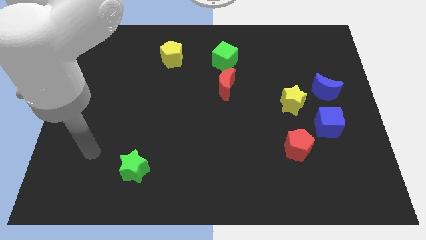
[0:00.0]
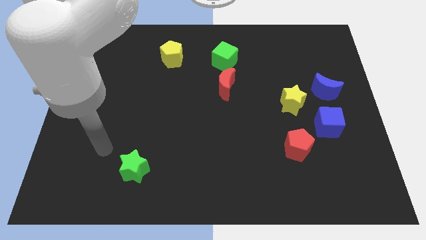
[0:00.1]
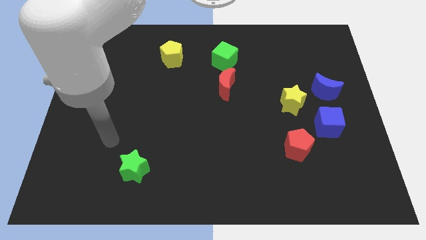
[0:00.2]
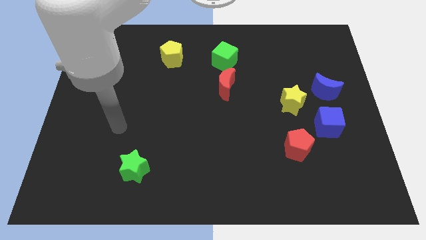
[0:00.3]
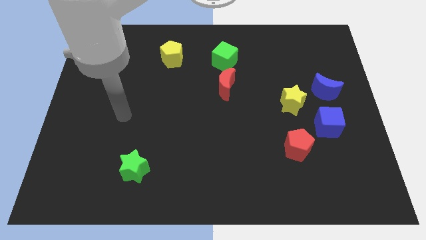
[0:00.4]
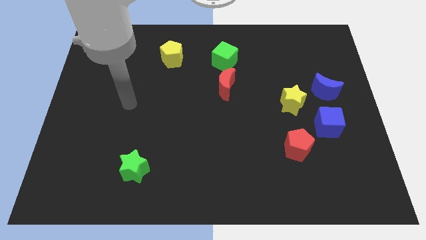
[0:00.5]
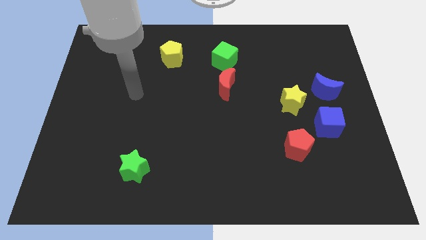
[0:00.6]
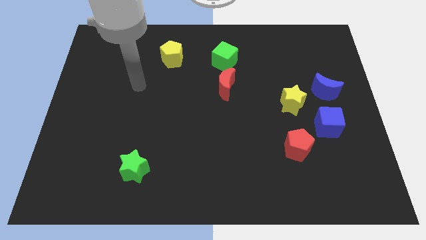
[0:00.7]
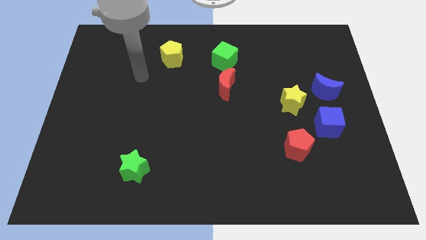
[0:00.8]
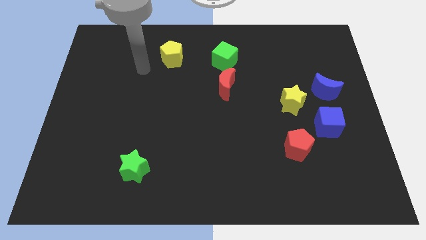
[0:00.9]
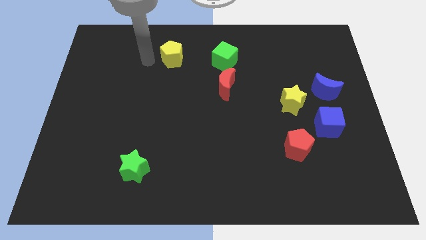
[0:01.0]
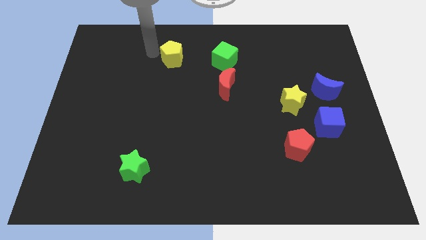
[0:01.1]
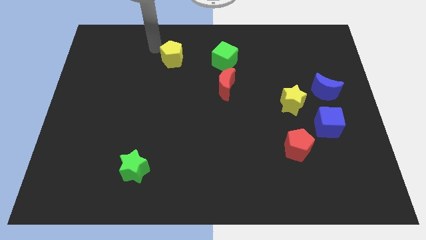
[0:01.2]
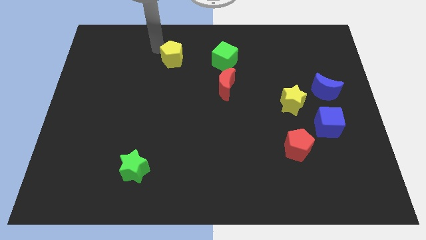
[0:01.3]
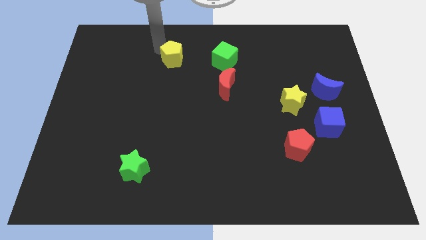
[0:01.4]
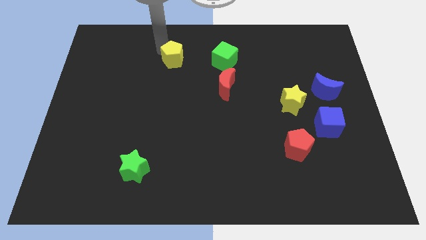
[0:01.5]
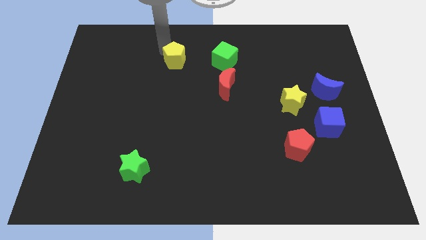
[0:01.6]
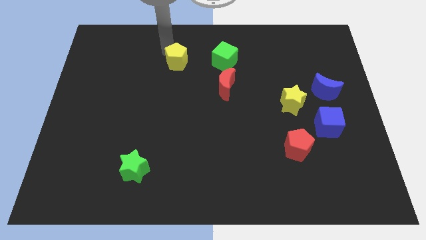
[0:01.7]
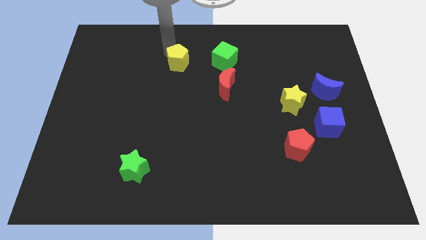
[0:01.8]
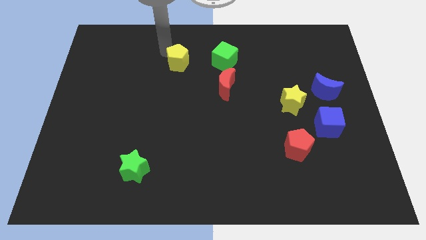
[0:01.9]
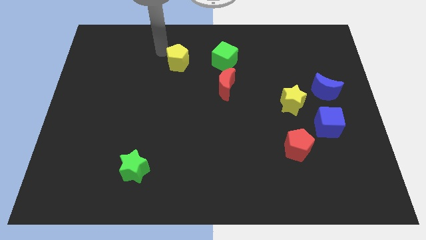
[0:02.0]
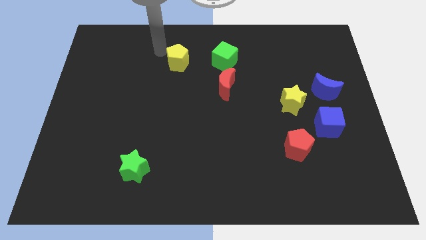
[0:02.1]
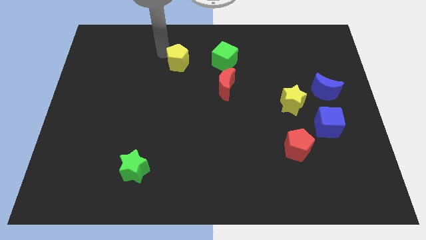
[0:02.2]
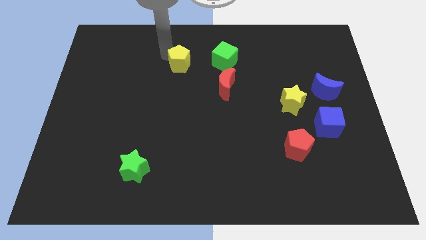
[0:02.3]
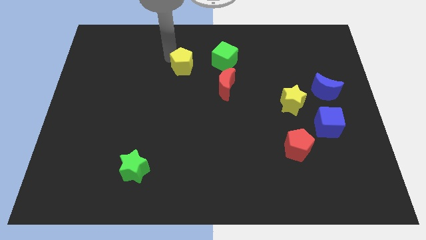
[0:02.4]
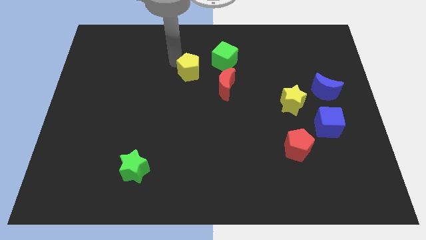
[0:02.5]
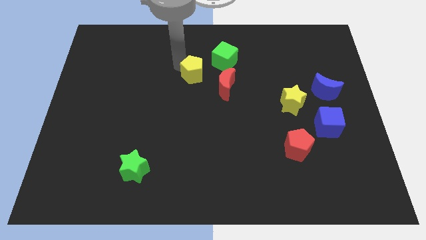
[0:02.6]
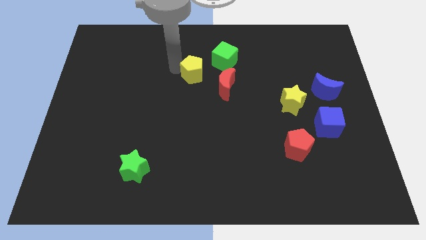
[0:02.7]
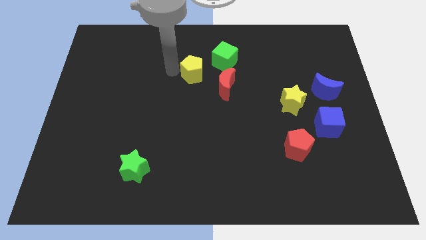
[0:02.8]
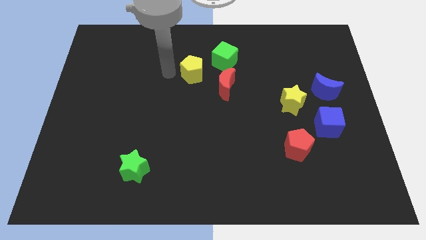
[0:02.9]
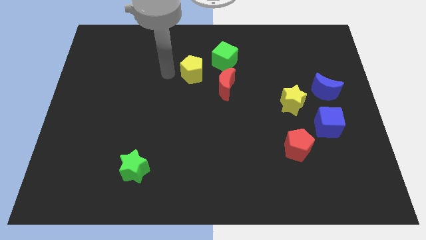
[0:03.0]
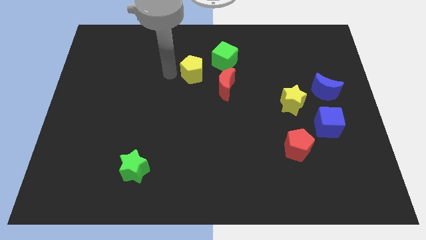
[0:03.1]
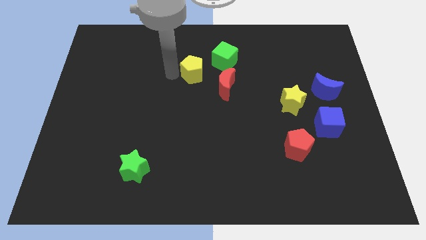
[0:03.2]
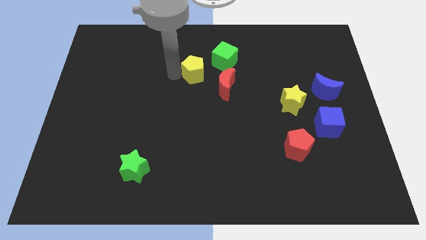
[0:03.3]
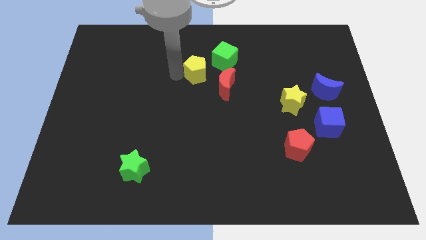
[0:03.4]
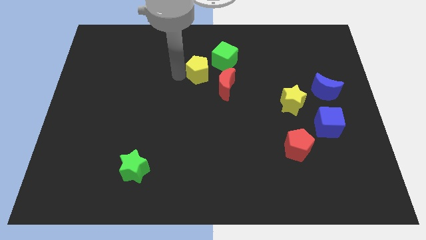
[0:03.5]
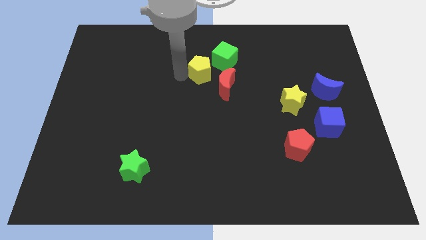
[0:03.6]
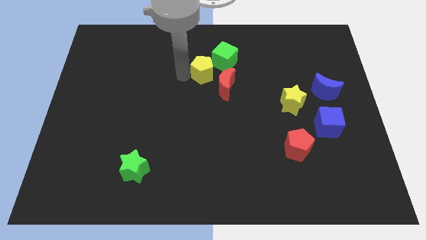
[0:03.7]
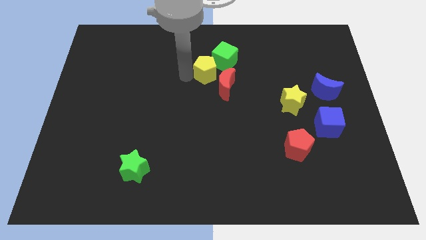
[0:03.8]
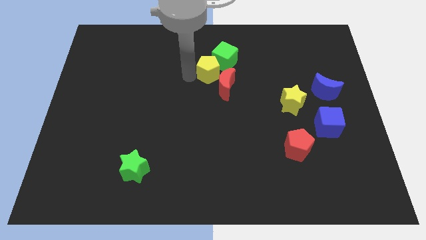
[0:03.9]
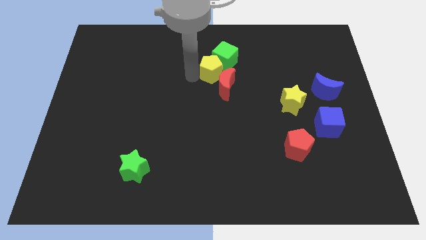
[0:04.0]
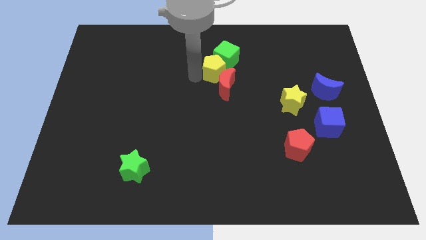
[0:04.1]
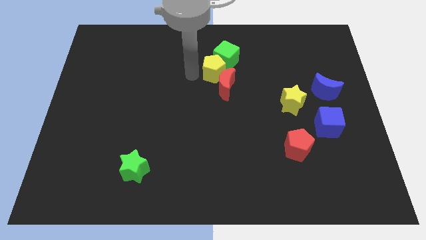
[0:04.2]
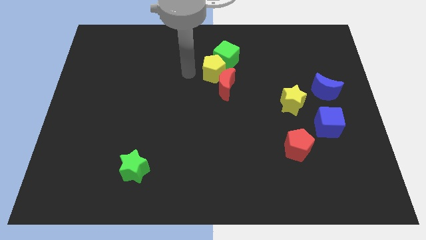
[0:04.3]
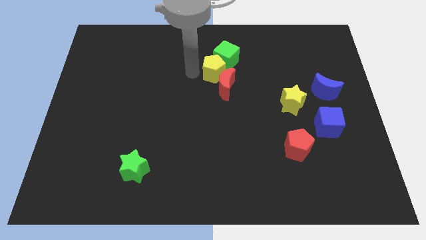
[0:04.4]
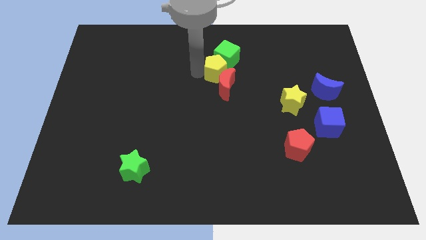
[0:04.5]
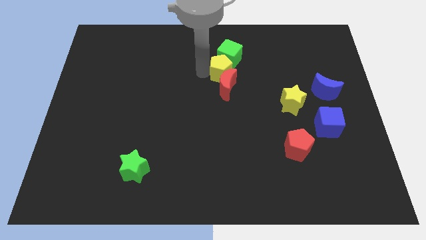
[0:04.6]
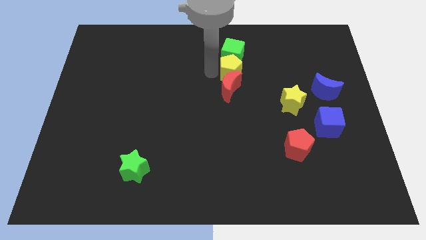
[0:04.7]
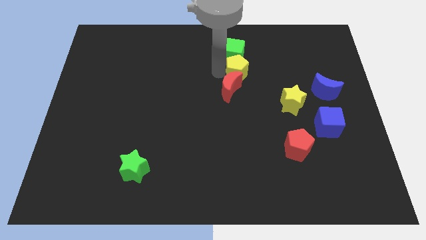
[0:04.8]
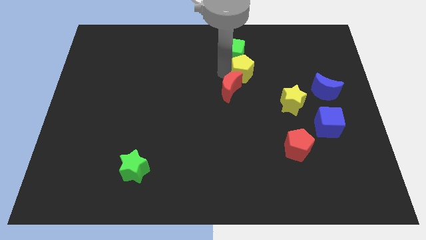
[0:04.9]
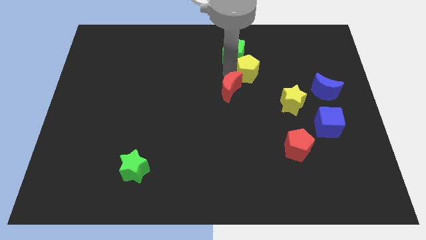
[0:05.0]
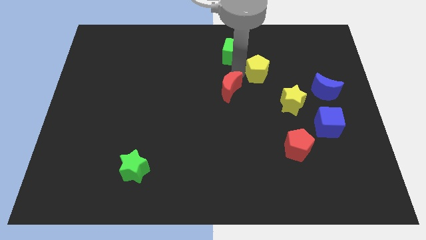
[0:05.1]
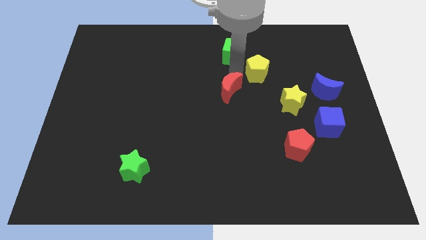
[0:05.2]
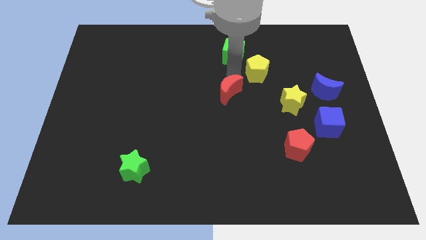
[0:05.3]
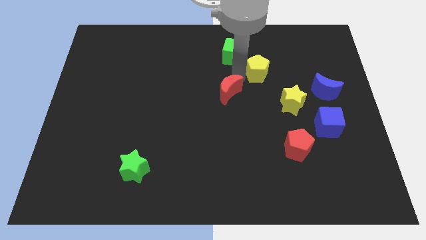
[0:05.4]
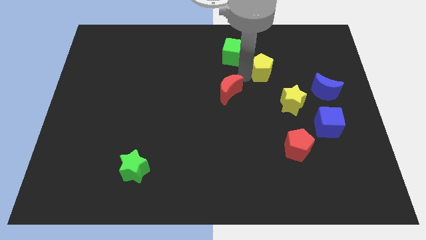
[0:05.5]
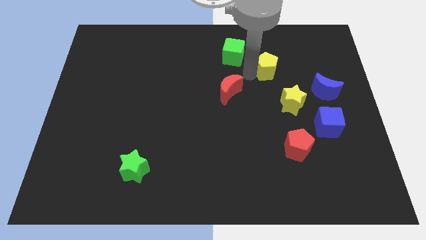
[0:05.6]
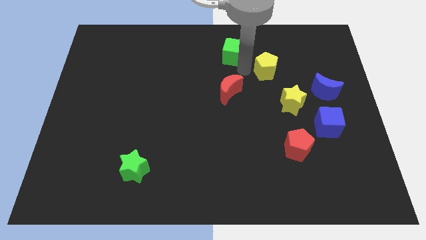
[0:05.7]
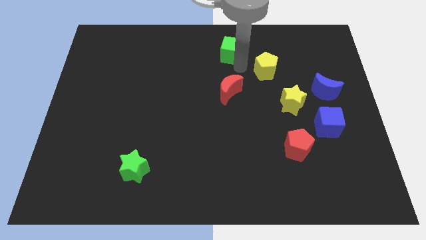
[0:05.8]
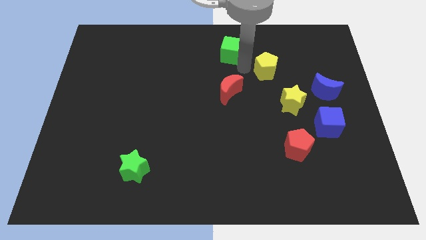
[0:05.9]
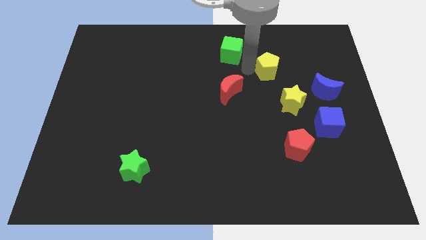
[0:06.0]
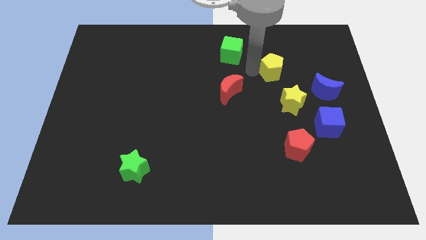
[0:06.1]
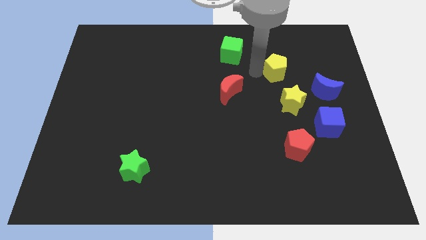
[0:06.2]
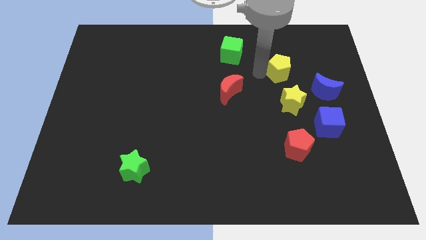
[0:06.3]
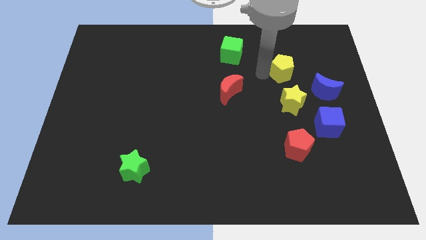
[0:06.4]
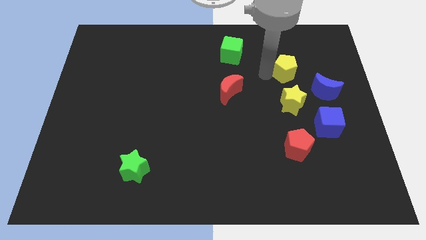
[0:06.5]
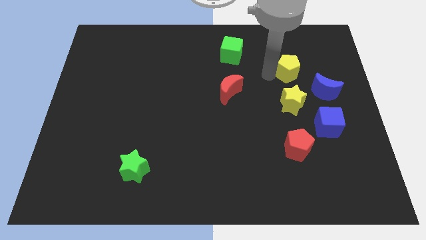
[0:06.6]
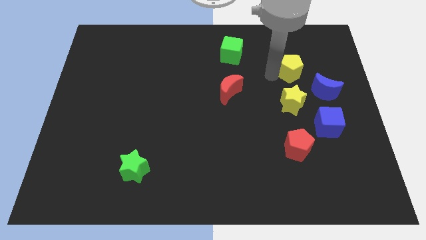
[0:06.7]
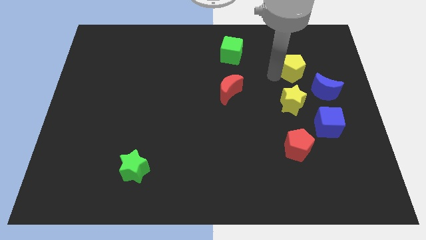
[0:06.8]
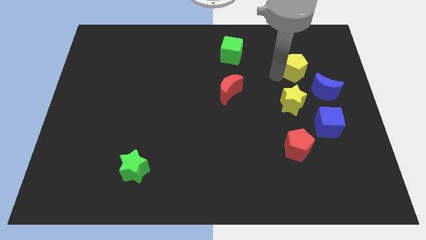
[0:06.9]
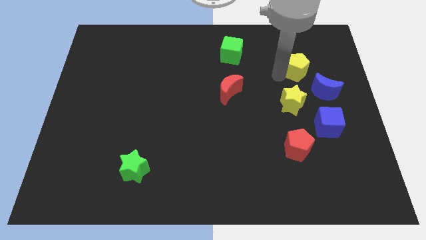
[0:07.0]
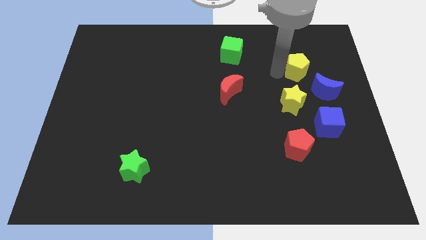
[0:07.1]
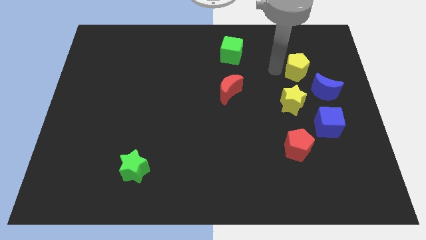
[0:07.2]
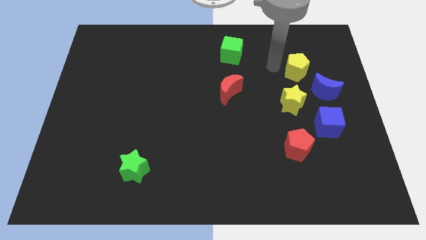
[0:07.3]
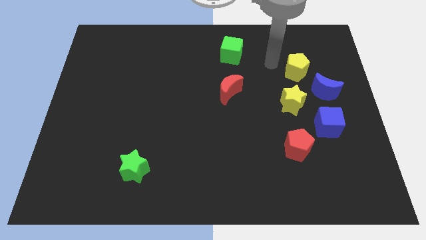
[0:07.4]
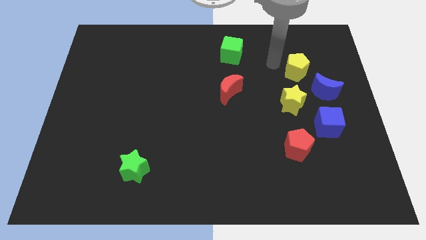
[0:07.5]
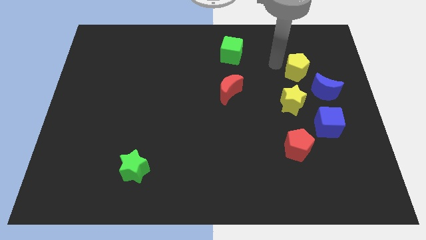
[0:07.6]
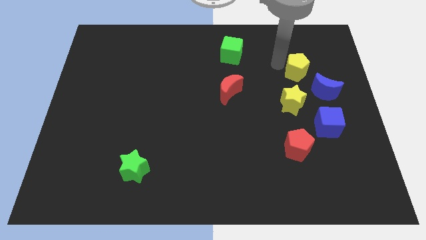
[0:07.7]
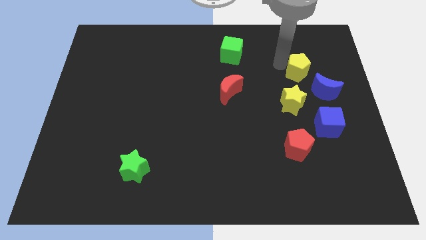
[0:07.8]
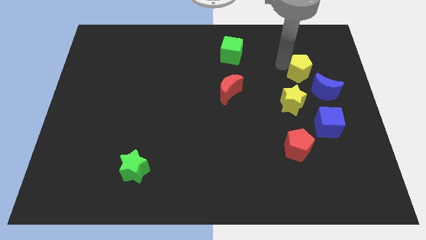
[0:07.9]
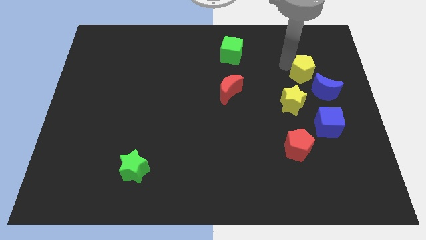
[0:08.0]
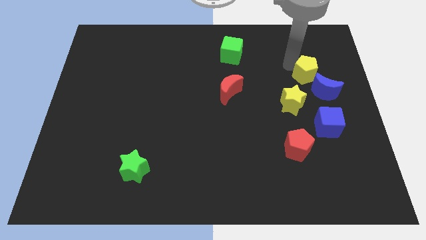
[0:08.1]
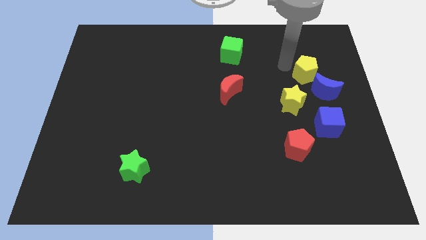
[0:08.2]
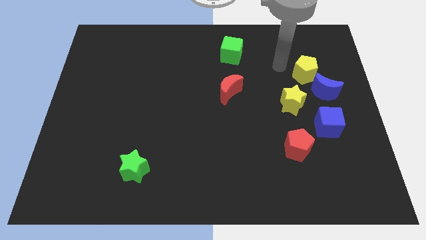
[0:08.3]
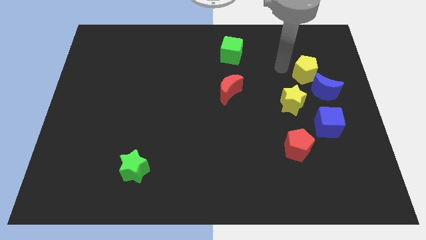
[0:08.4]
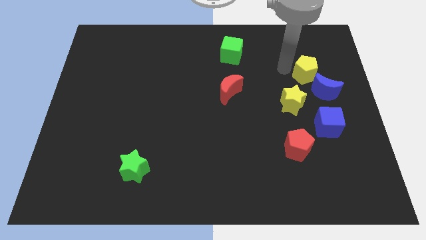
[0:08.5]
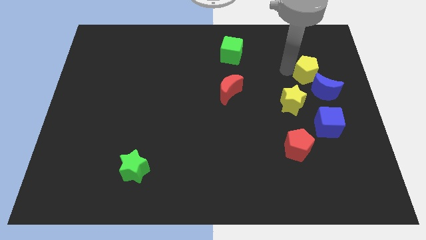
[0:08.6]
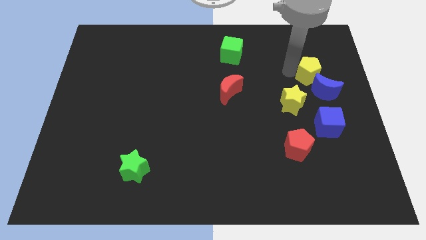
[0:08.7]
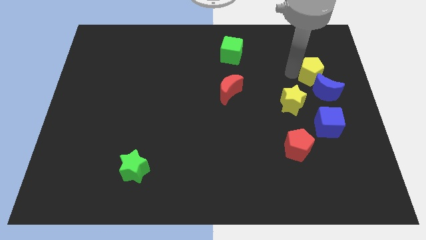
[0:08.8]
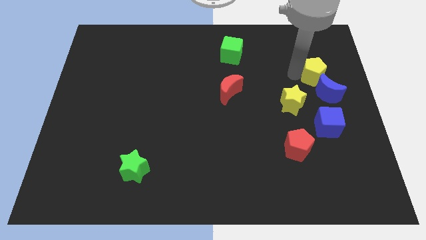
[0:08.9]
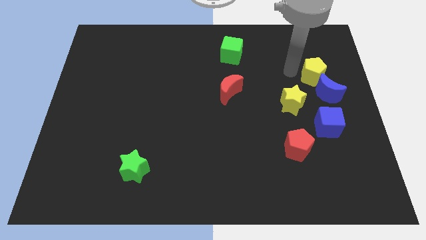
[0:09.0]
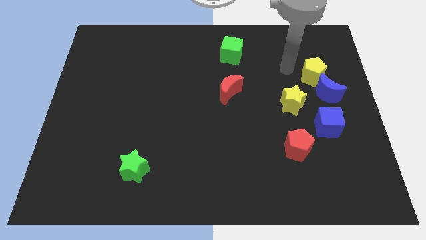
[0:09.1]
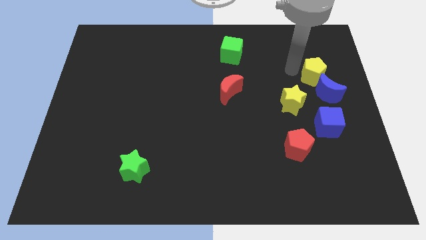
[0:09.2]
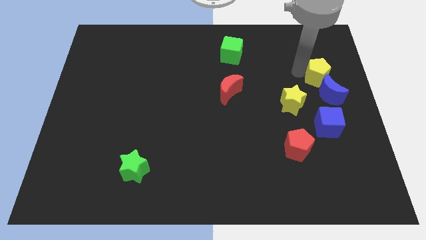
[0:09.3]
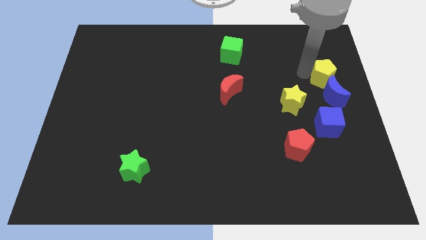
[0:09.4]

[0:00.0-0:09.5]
put the yellow pentagon to the center right
